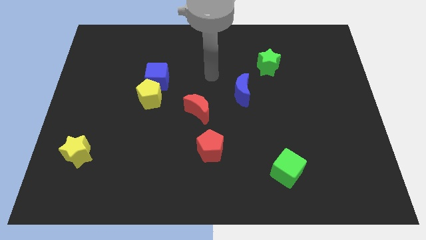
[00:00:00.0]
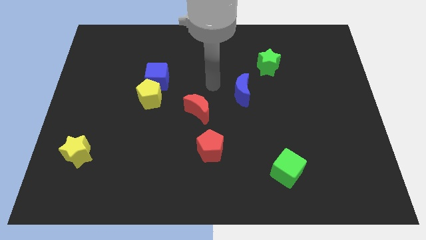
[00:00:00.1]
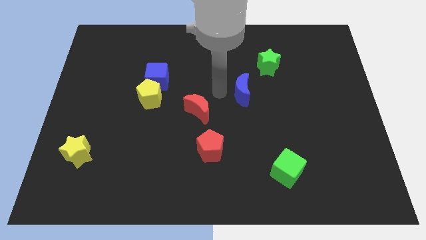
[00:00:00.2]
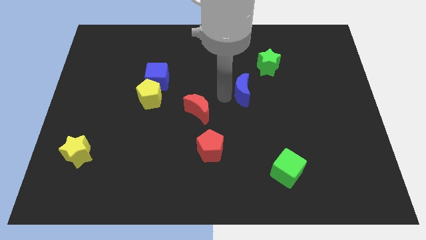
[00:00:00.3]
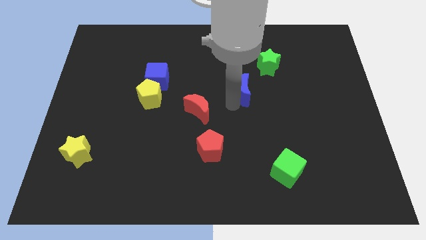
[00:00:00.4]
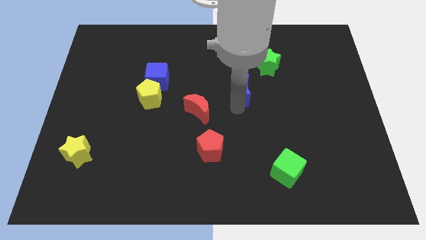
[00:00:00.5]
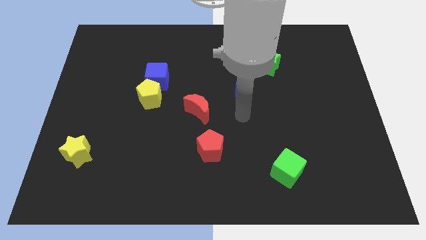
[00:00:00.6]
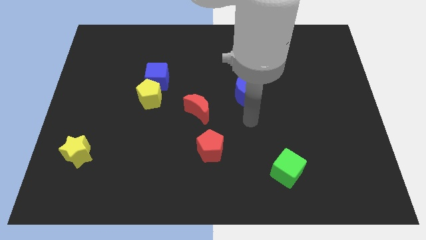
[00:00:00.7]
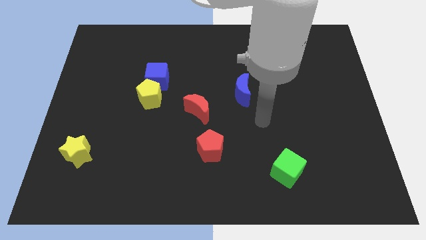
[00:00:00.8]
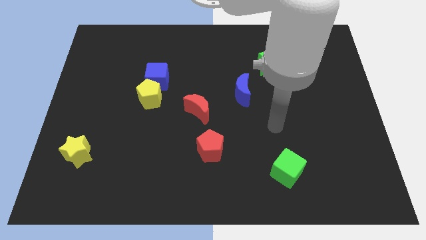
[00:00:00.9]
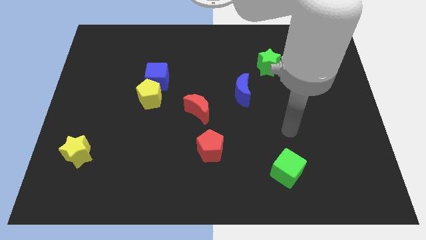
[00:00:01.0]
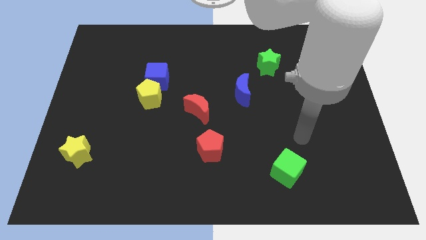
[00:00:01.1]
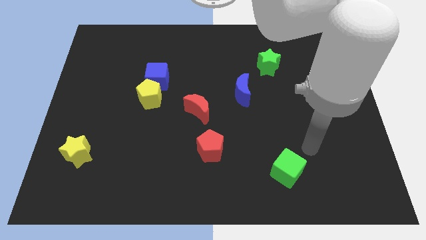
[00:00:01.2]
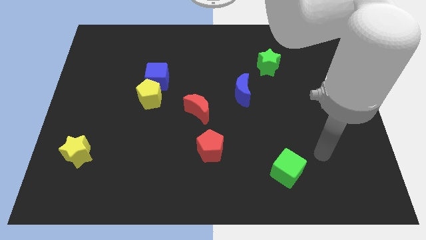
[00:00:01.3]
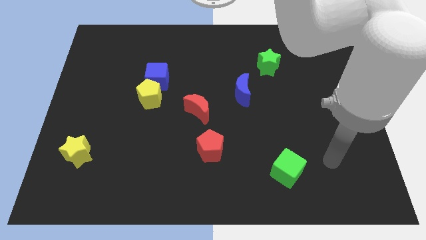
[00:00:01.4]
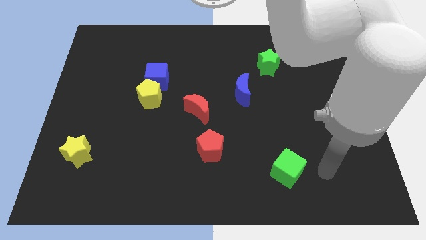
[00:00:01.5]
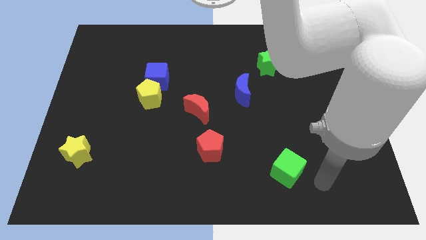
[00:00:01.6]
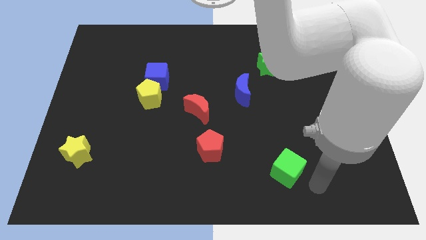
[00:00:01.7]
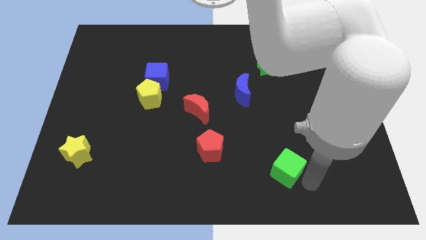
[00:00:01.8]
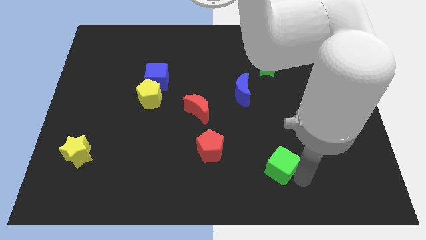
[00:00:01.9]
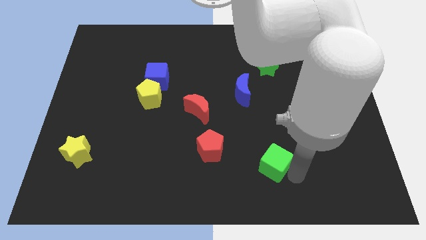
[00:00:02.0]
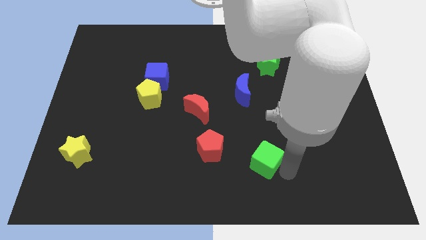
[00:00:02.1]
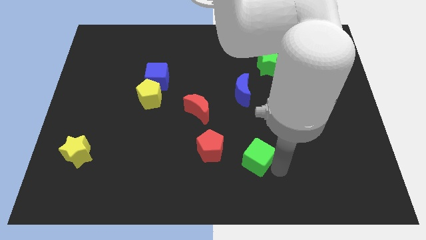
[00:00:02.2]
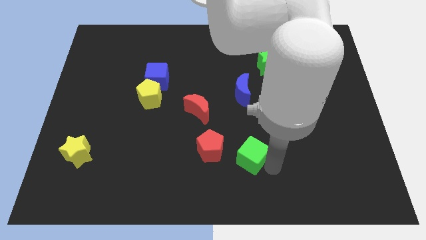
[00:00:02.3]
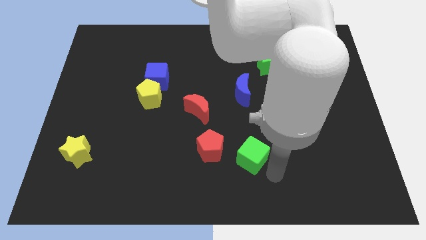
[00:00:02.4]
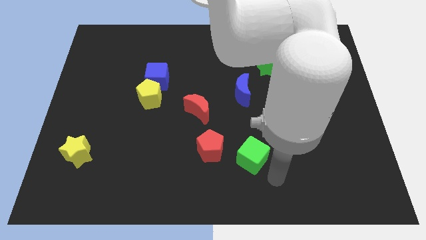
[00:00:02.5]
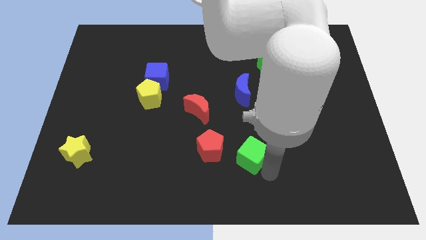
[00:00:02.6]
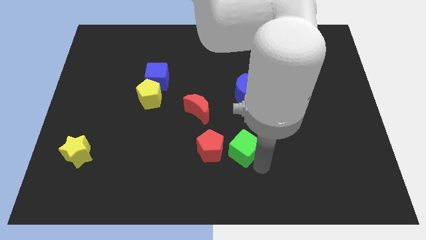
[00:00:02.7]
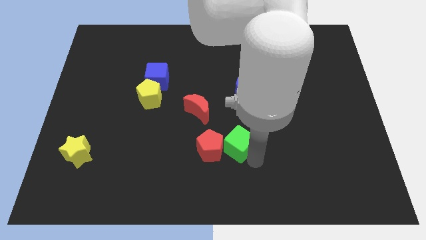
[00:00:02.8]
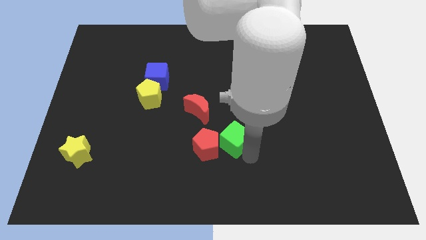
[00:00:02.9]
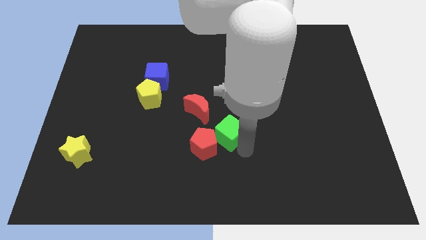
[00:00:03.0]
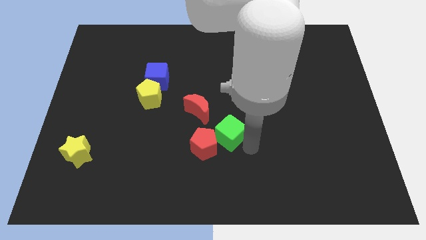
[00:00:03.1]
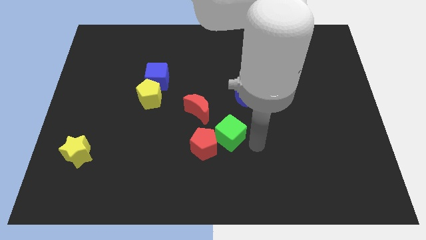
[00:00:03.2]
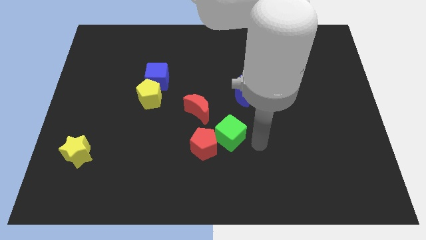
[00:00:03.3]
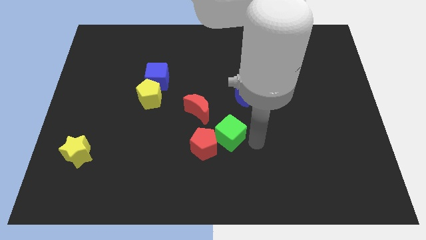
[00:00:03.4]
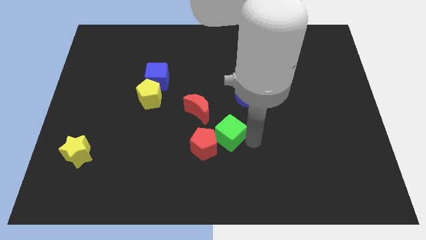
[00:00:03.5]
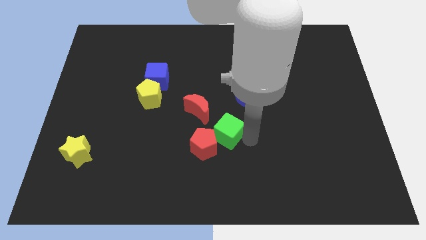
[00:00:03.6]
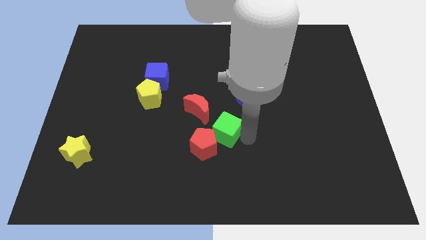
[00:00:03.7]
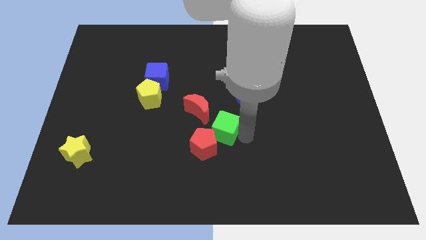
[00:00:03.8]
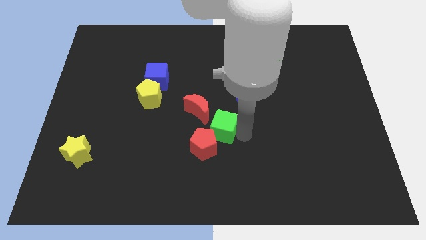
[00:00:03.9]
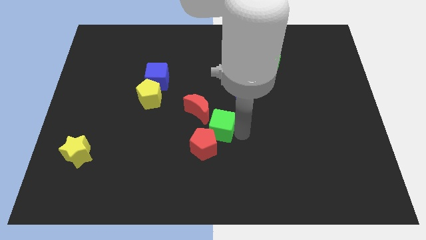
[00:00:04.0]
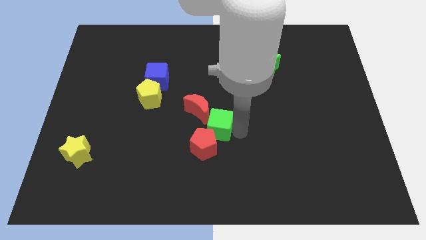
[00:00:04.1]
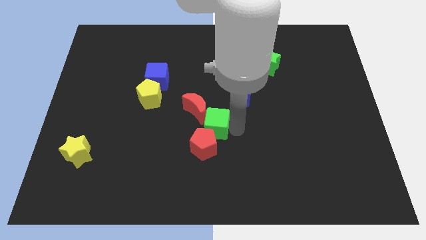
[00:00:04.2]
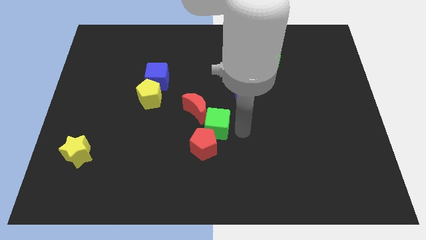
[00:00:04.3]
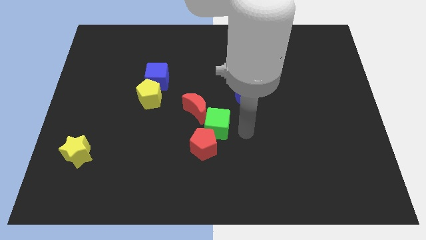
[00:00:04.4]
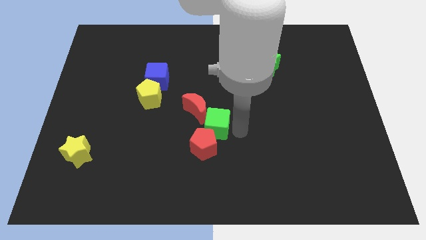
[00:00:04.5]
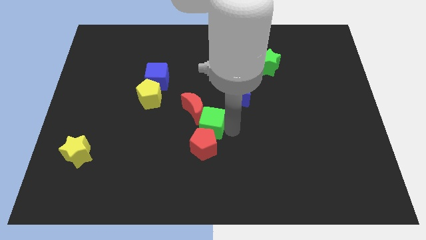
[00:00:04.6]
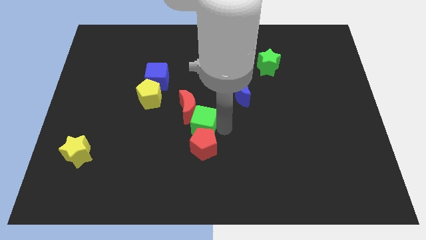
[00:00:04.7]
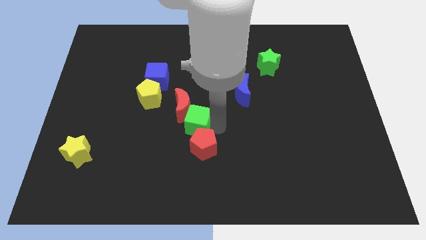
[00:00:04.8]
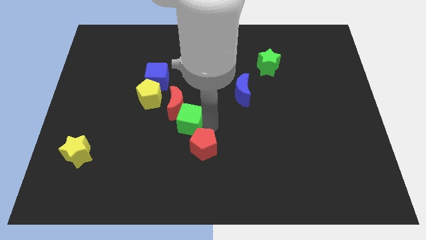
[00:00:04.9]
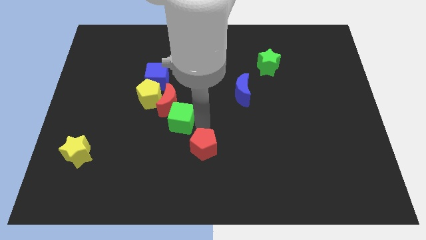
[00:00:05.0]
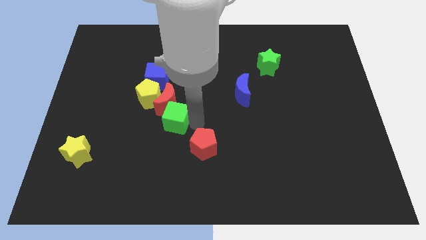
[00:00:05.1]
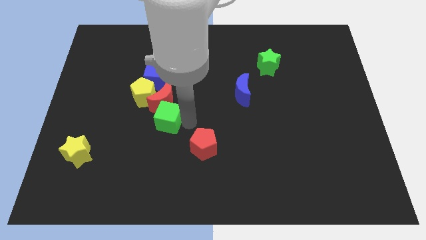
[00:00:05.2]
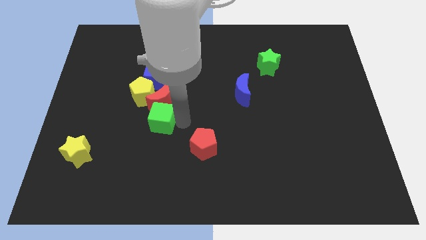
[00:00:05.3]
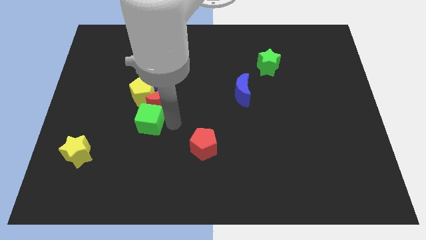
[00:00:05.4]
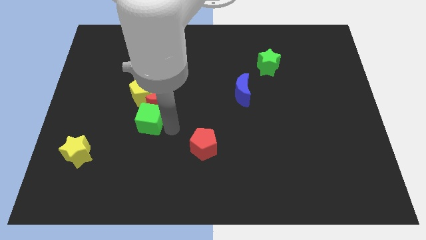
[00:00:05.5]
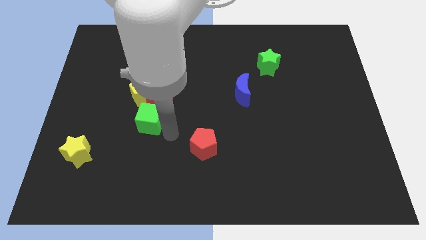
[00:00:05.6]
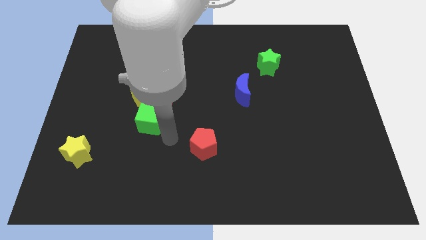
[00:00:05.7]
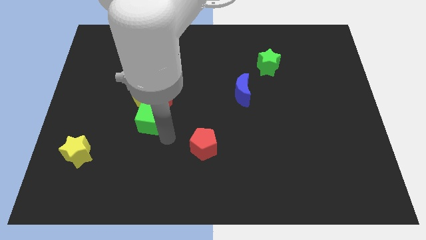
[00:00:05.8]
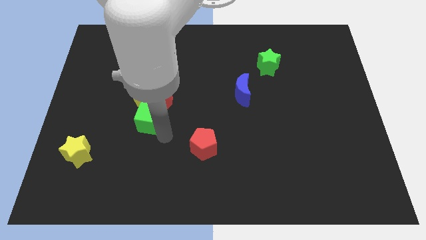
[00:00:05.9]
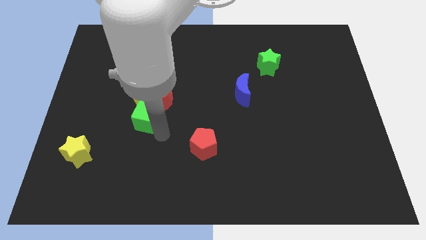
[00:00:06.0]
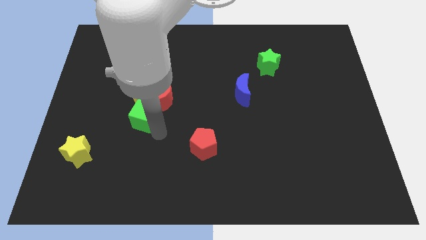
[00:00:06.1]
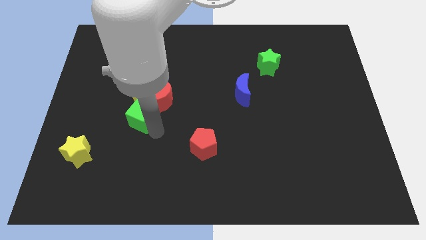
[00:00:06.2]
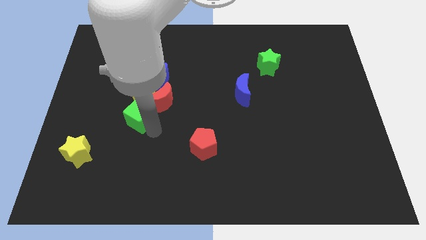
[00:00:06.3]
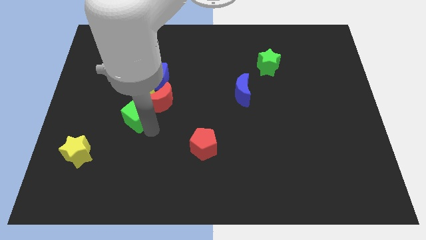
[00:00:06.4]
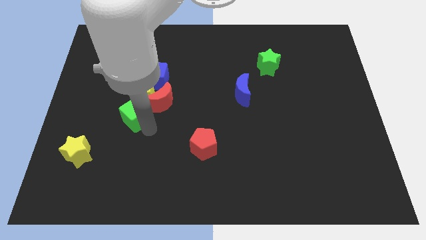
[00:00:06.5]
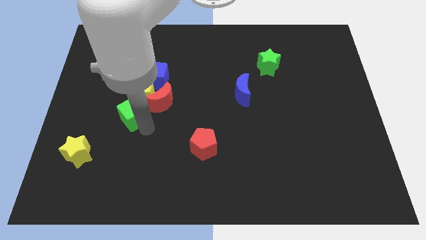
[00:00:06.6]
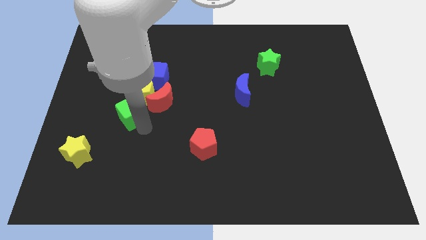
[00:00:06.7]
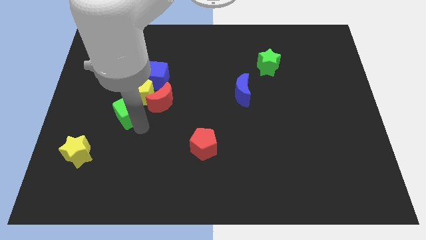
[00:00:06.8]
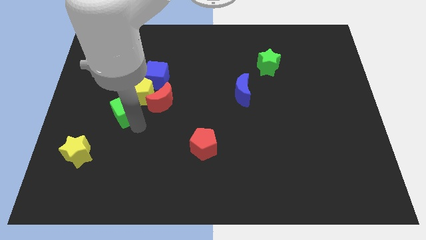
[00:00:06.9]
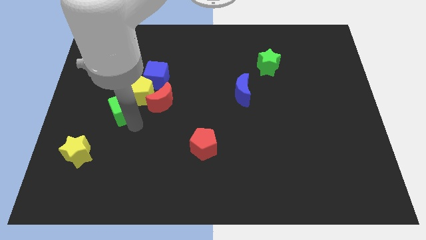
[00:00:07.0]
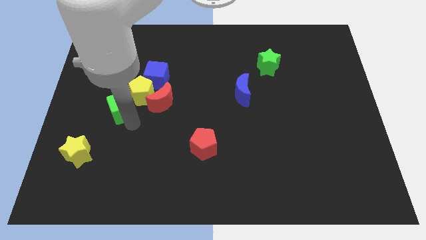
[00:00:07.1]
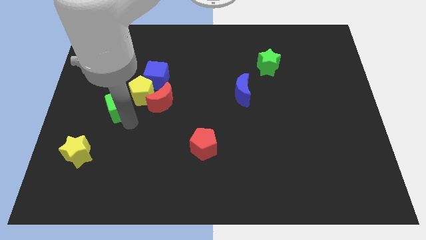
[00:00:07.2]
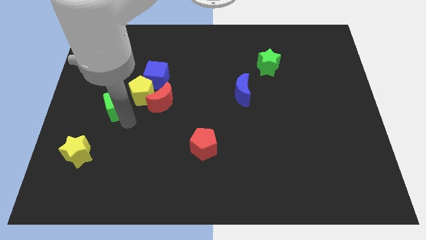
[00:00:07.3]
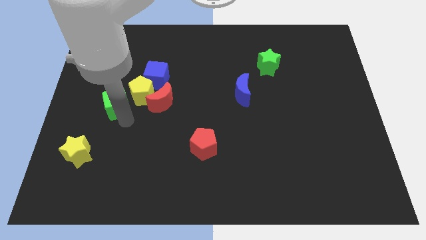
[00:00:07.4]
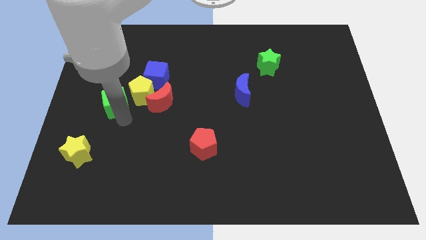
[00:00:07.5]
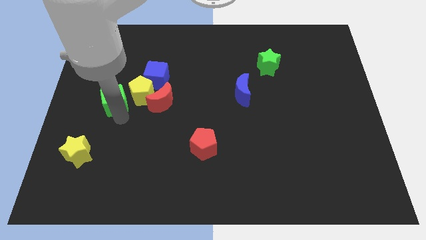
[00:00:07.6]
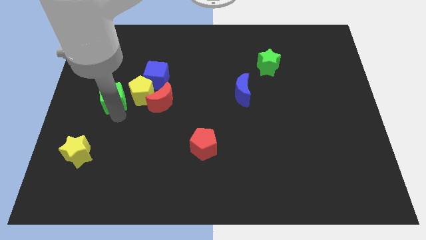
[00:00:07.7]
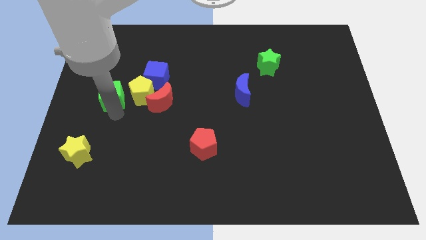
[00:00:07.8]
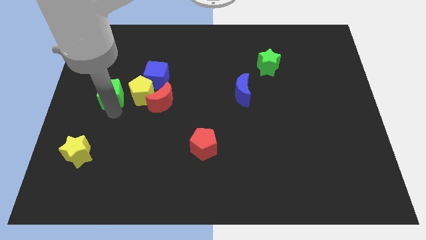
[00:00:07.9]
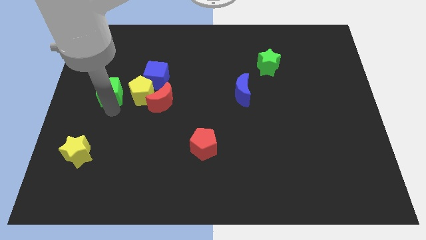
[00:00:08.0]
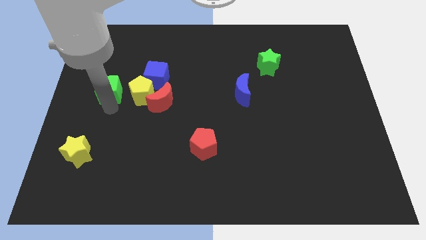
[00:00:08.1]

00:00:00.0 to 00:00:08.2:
slide the green cube to the left of the blue cube
